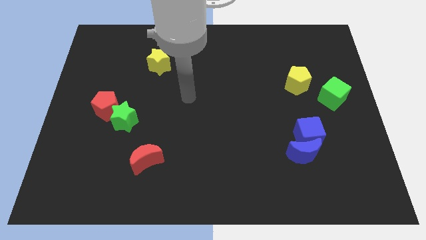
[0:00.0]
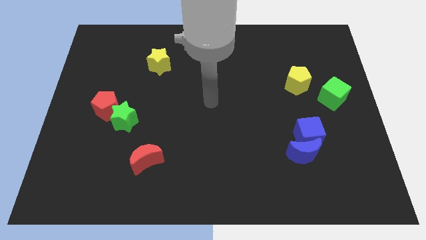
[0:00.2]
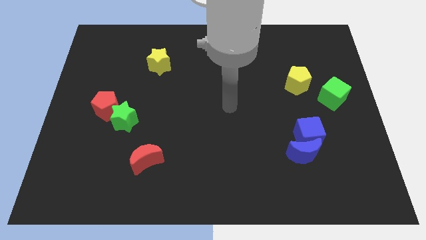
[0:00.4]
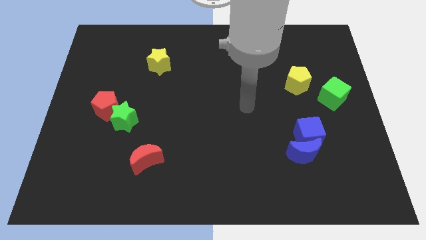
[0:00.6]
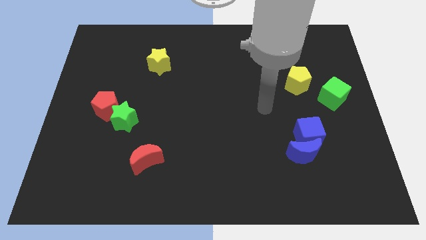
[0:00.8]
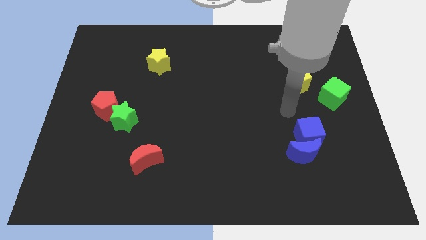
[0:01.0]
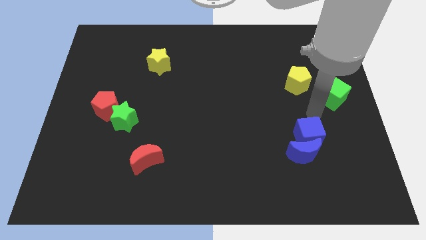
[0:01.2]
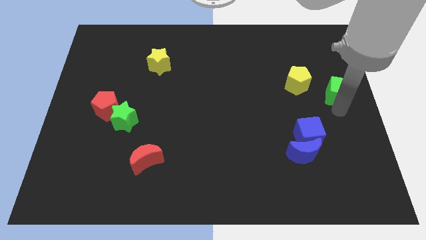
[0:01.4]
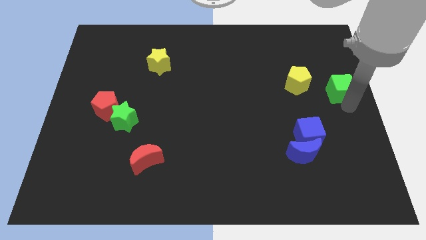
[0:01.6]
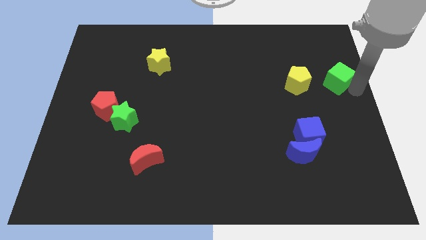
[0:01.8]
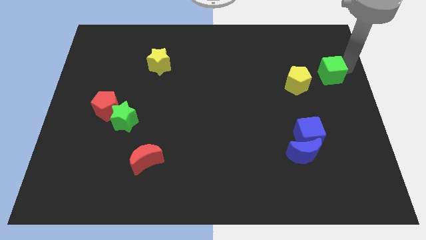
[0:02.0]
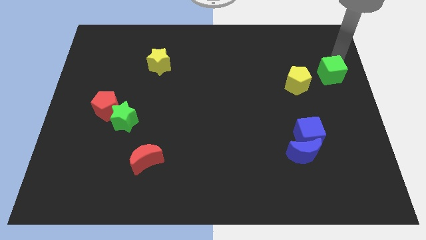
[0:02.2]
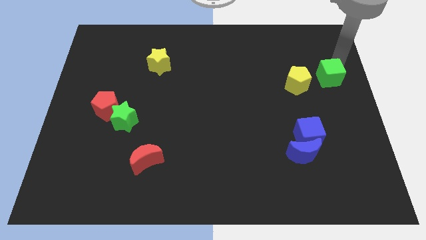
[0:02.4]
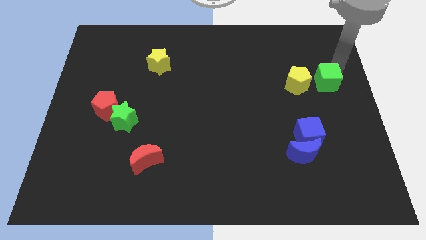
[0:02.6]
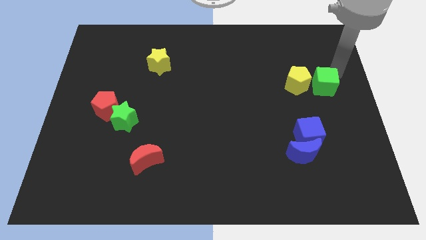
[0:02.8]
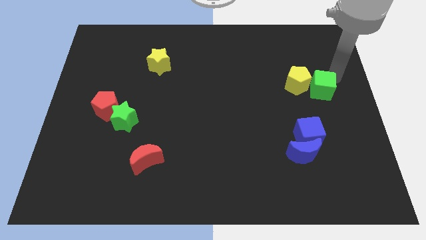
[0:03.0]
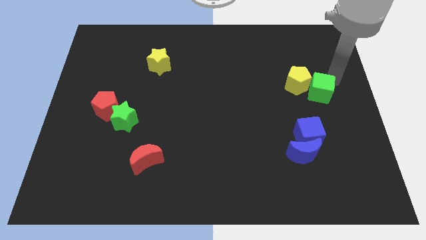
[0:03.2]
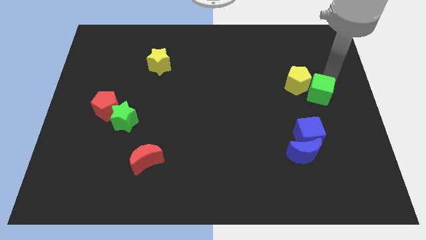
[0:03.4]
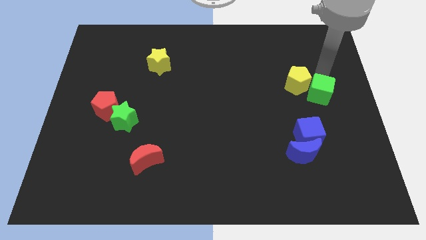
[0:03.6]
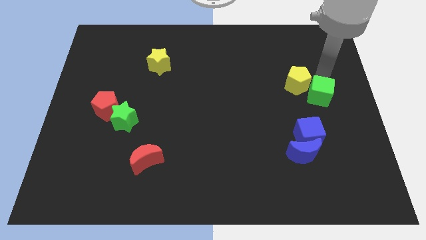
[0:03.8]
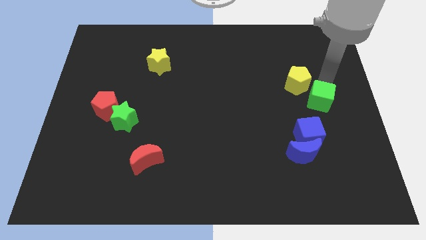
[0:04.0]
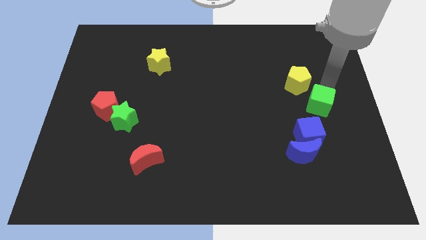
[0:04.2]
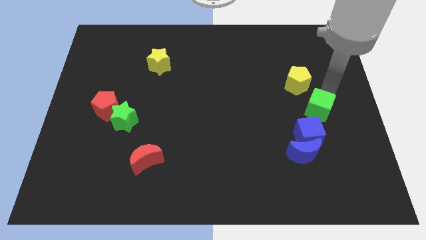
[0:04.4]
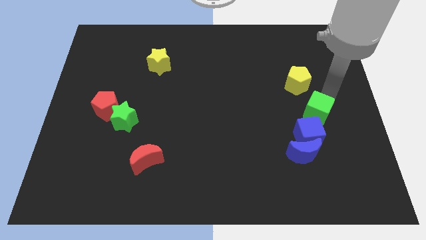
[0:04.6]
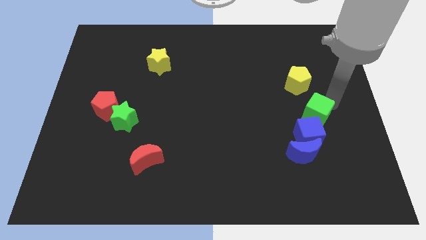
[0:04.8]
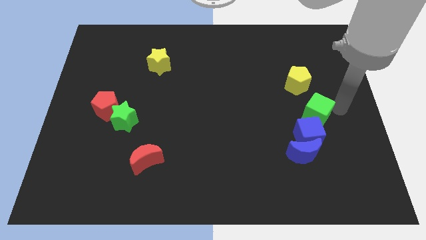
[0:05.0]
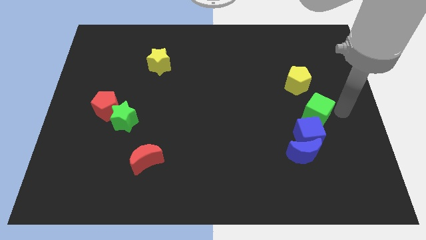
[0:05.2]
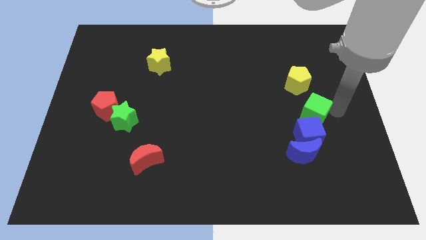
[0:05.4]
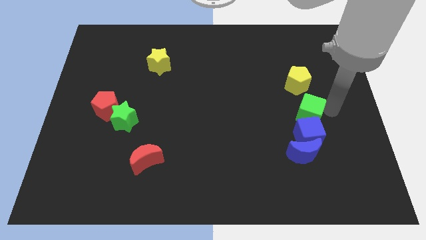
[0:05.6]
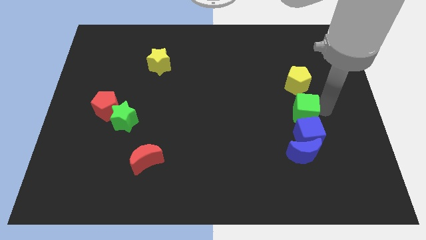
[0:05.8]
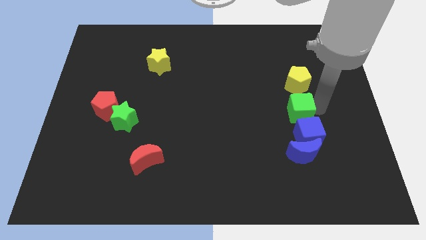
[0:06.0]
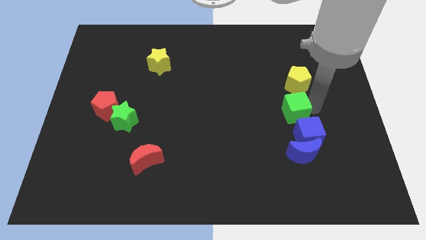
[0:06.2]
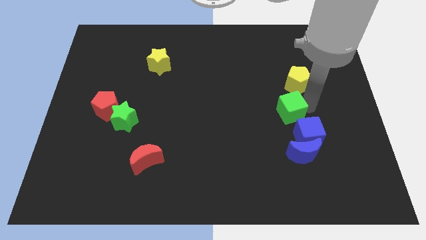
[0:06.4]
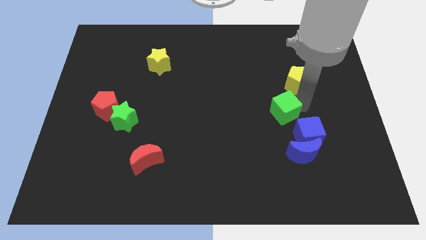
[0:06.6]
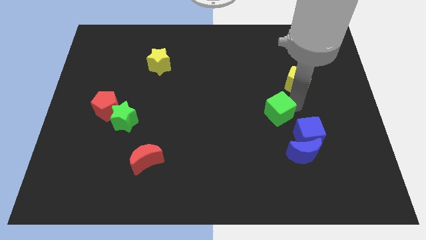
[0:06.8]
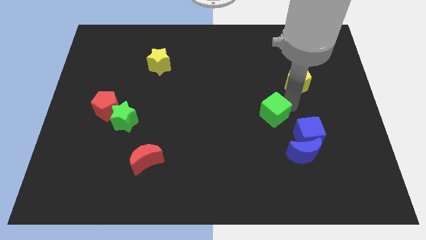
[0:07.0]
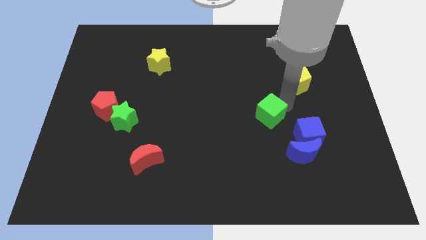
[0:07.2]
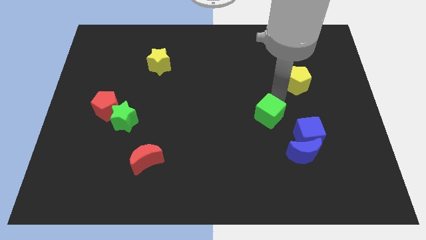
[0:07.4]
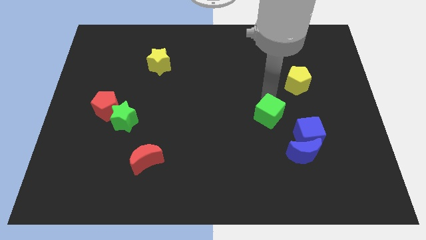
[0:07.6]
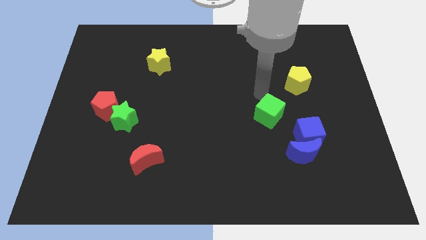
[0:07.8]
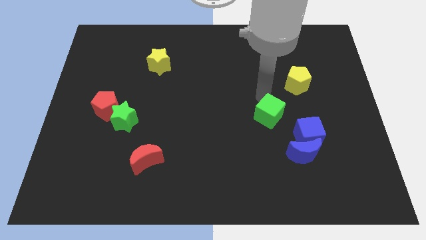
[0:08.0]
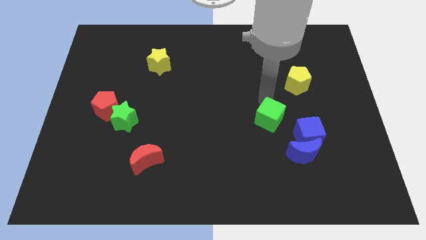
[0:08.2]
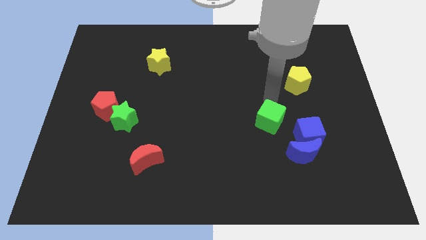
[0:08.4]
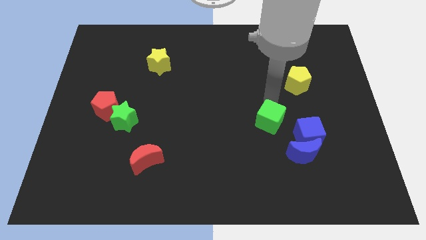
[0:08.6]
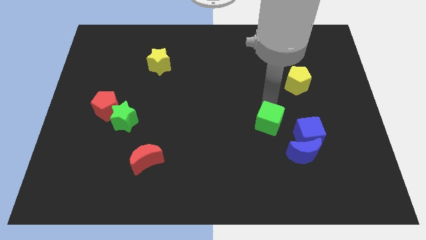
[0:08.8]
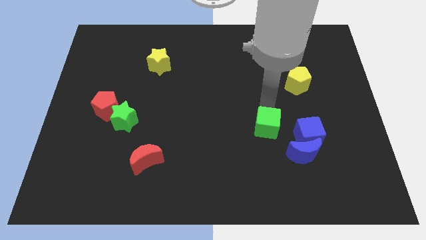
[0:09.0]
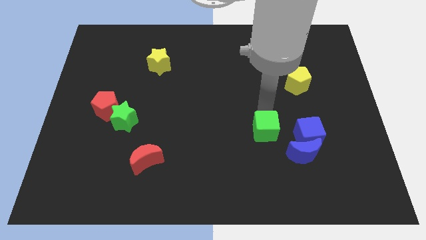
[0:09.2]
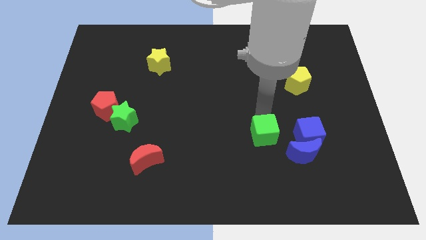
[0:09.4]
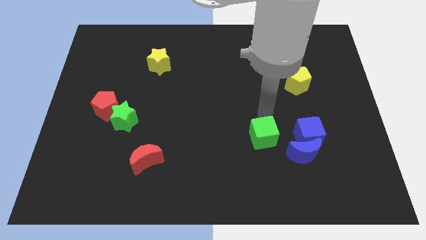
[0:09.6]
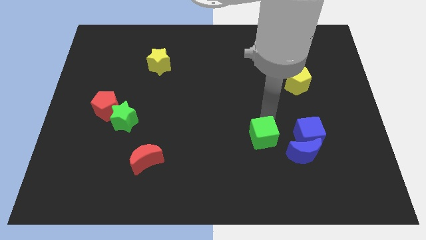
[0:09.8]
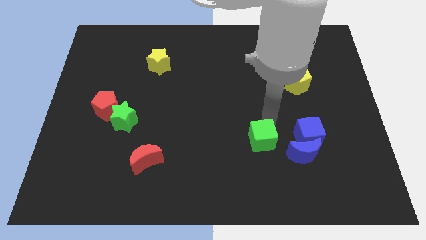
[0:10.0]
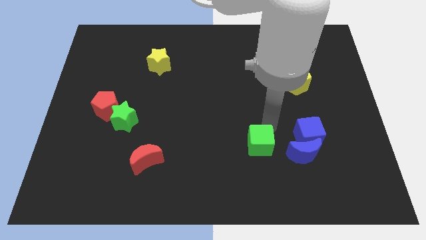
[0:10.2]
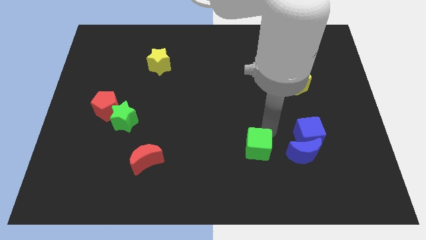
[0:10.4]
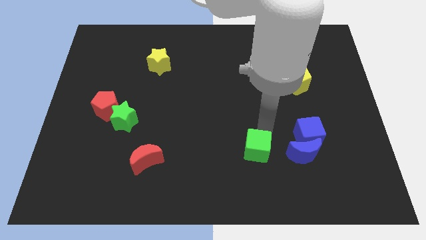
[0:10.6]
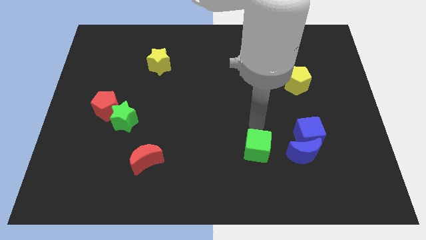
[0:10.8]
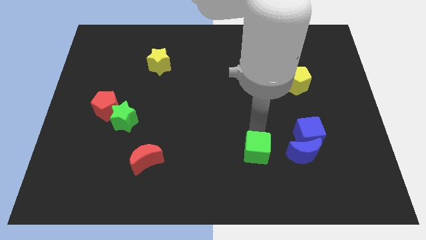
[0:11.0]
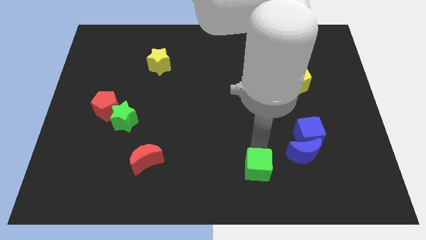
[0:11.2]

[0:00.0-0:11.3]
move the green cube to the bottom

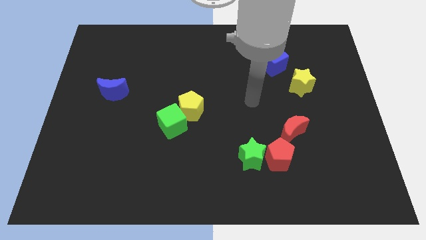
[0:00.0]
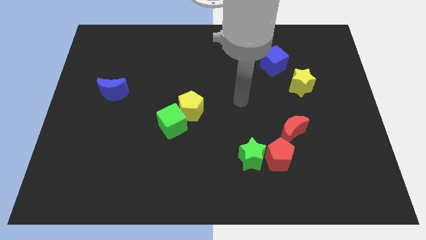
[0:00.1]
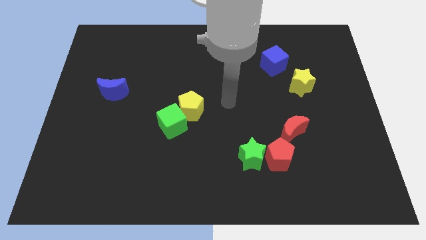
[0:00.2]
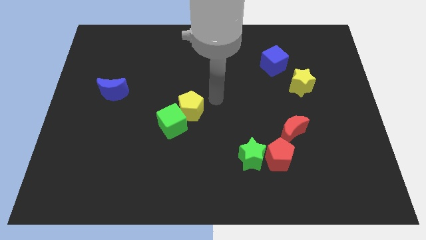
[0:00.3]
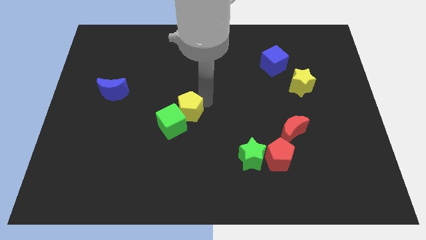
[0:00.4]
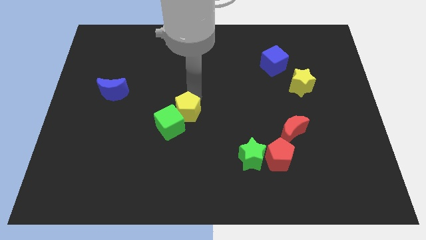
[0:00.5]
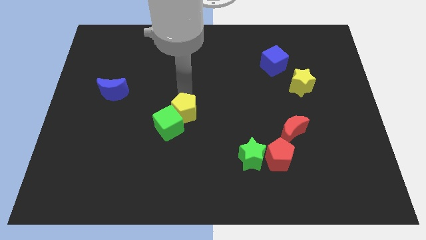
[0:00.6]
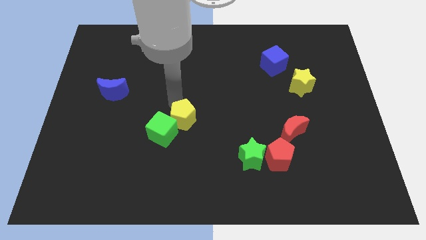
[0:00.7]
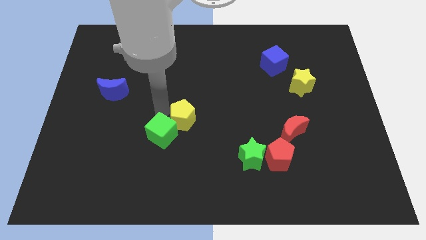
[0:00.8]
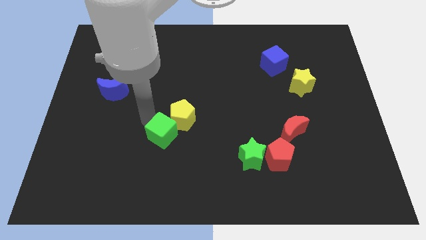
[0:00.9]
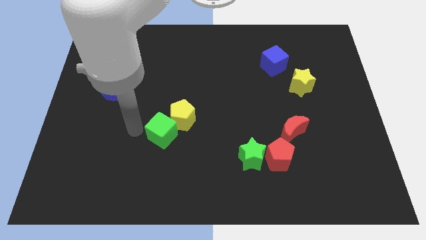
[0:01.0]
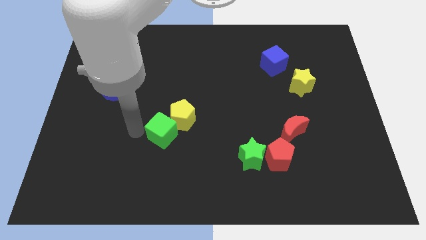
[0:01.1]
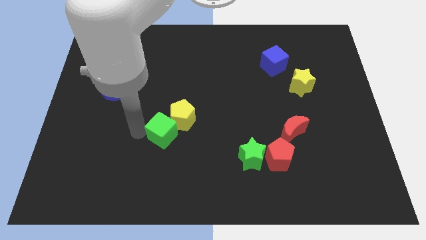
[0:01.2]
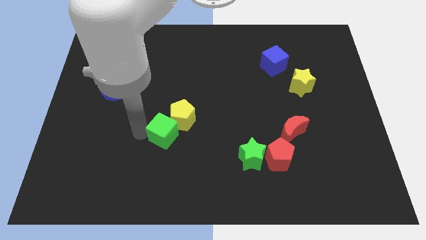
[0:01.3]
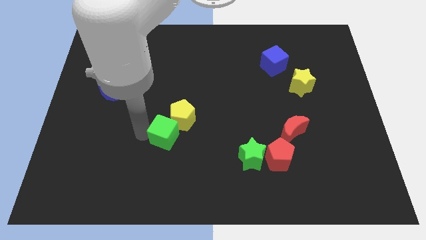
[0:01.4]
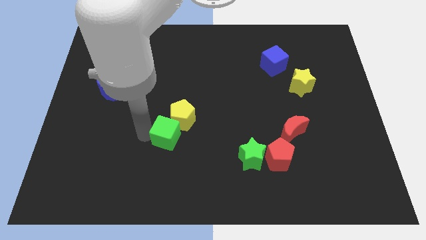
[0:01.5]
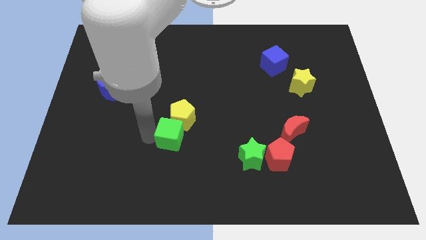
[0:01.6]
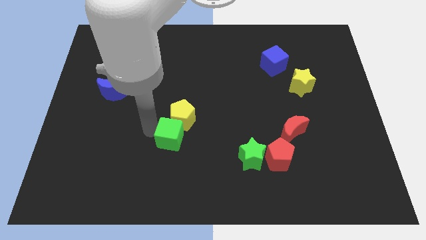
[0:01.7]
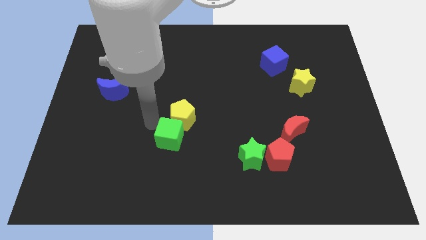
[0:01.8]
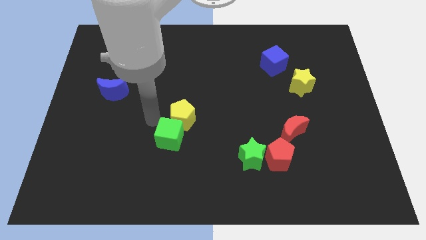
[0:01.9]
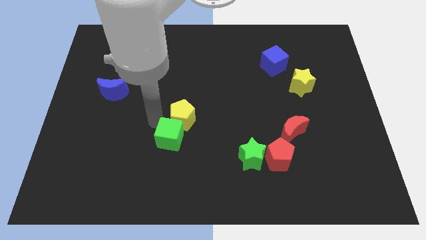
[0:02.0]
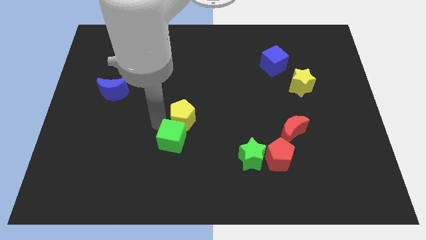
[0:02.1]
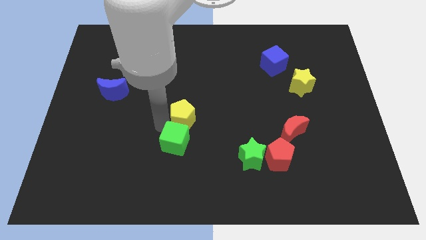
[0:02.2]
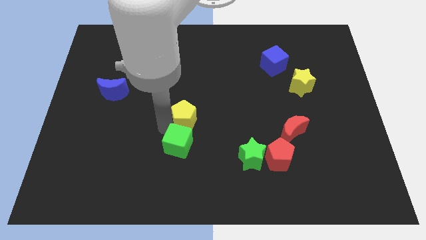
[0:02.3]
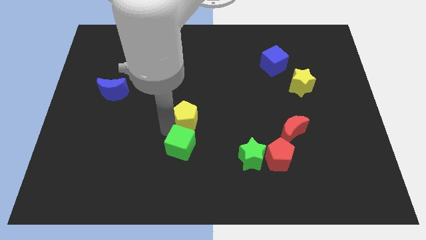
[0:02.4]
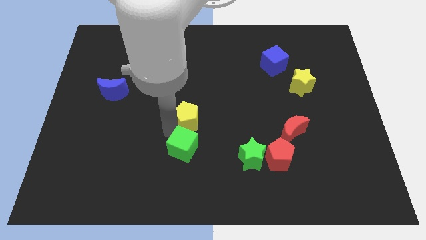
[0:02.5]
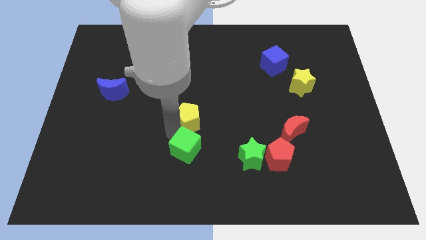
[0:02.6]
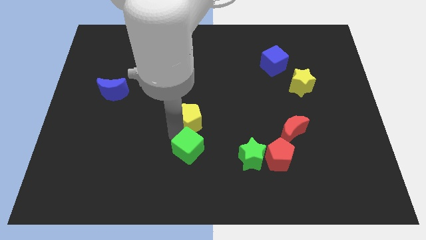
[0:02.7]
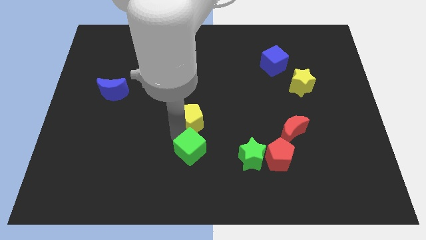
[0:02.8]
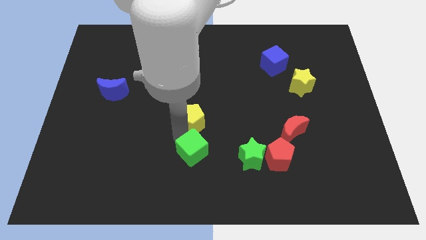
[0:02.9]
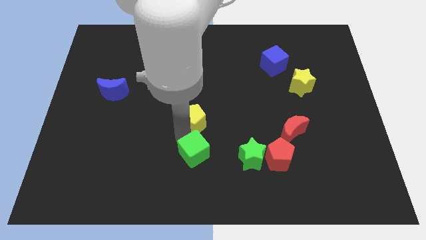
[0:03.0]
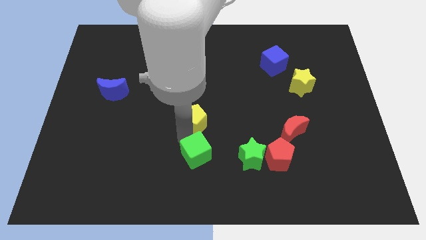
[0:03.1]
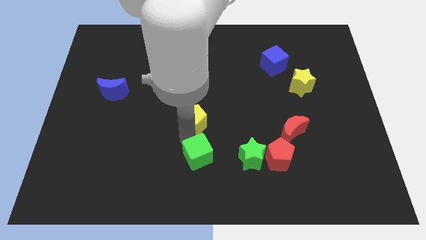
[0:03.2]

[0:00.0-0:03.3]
move the green cube to the bottom side
